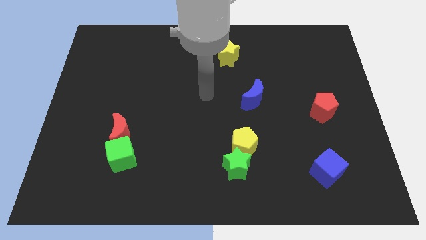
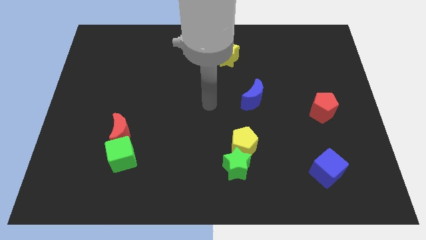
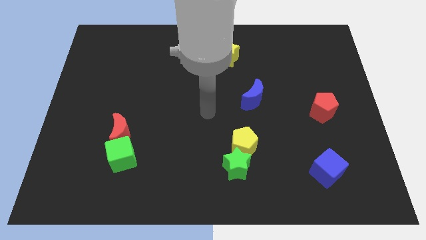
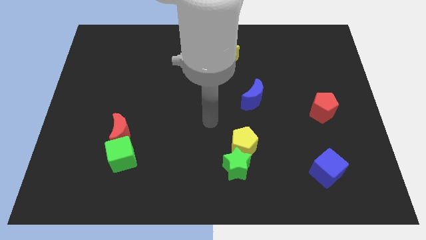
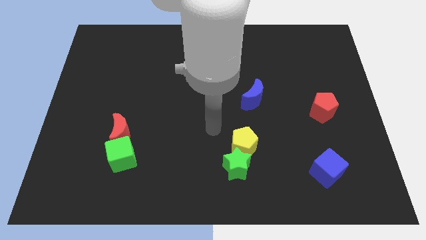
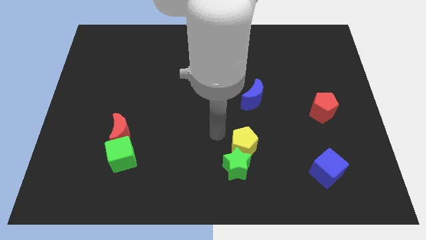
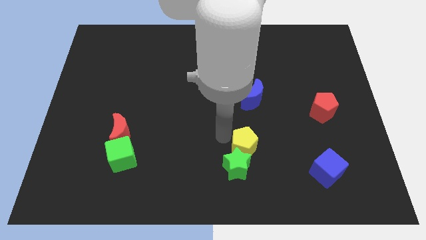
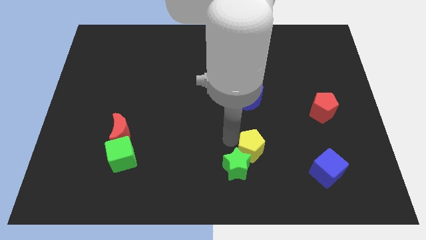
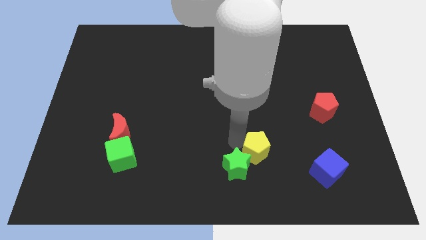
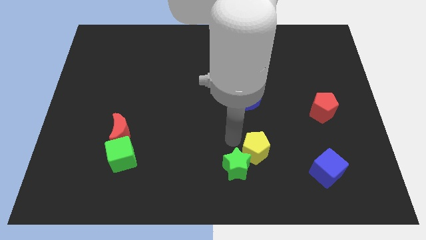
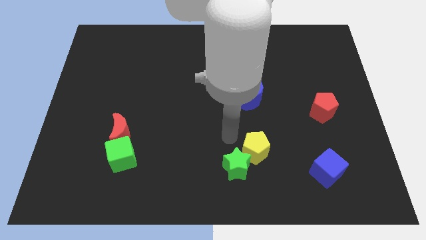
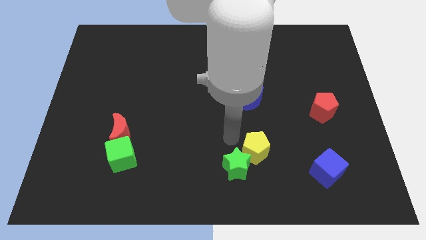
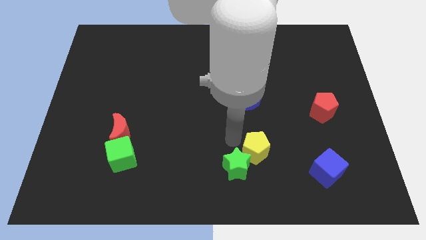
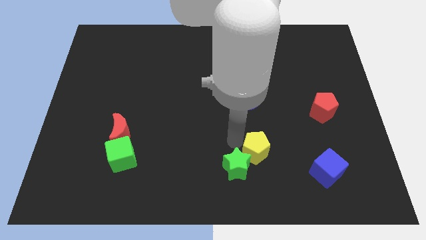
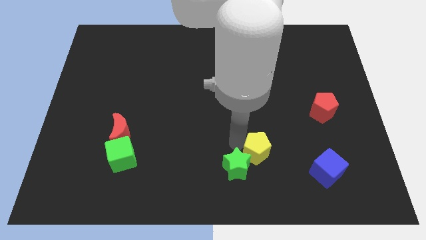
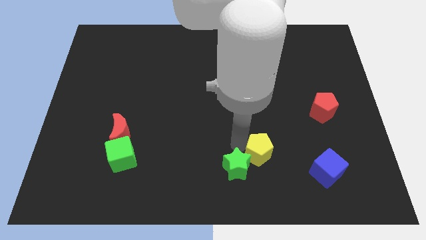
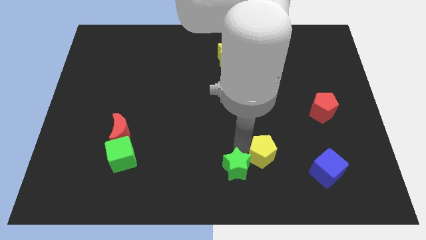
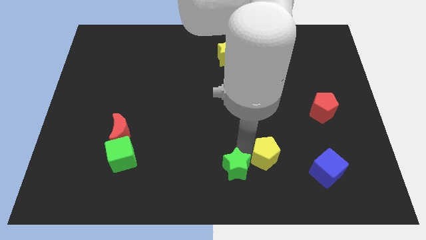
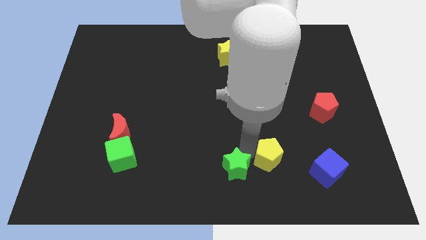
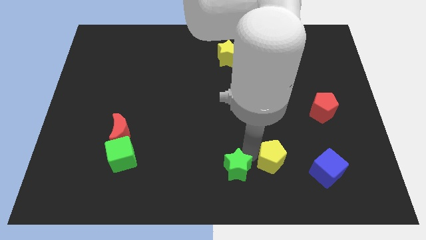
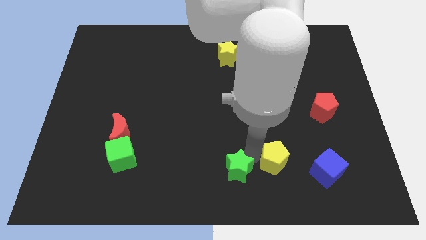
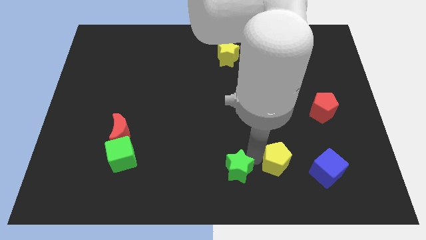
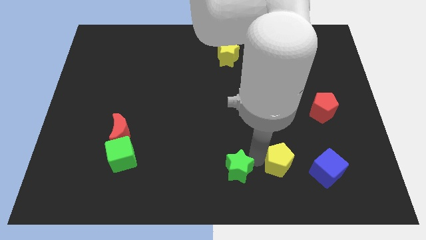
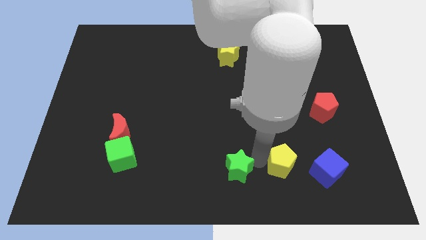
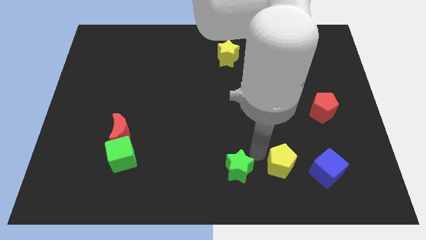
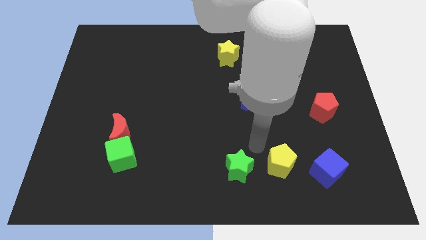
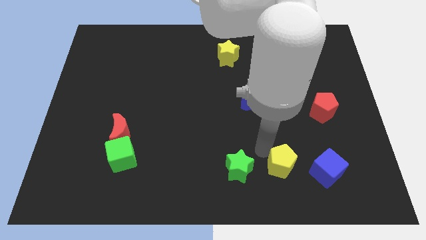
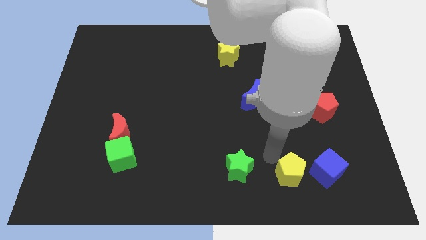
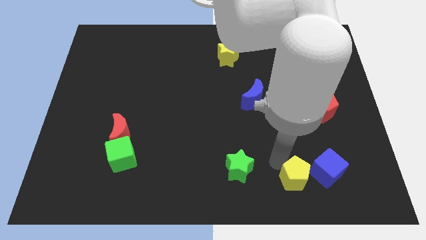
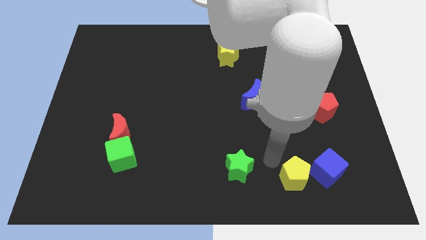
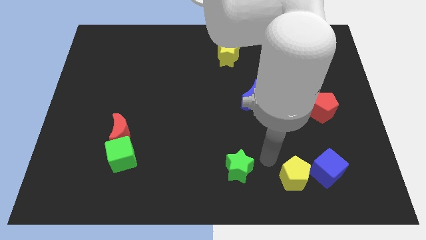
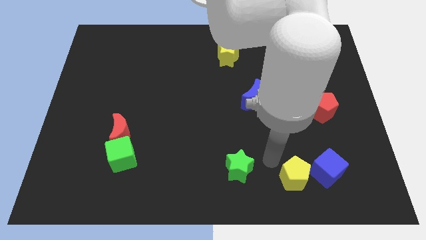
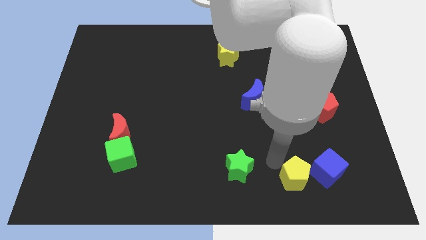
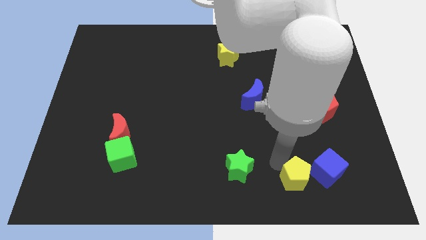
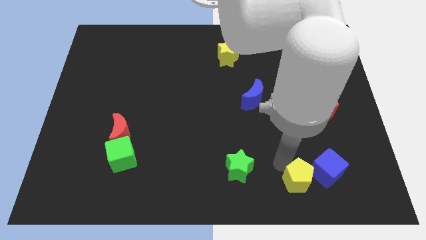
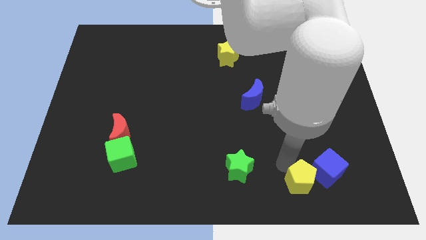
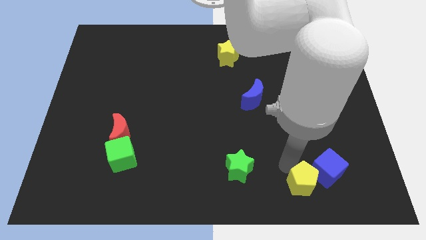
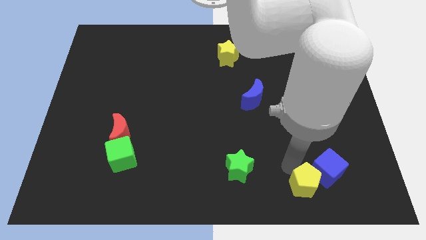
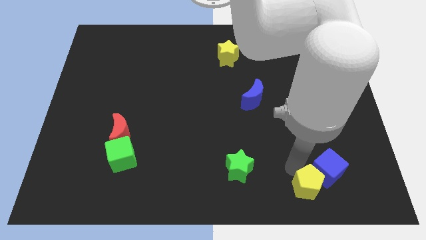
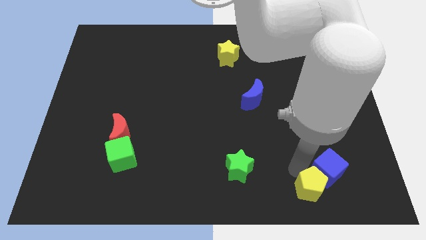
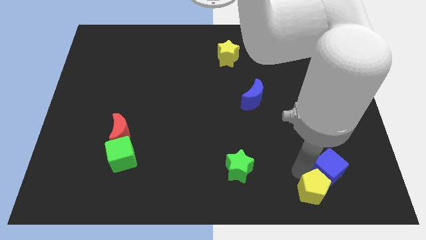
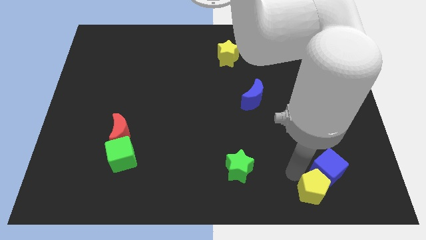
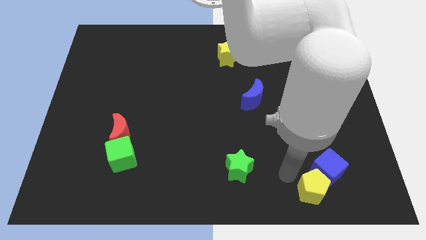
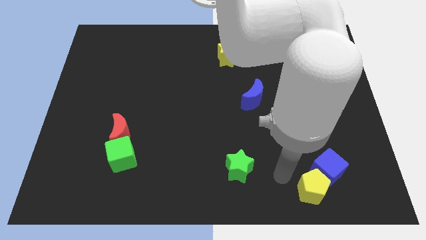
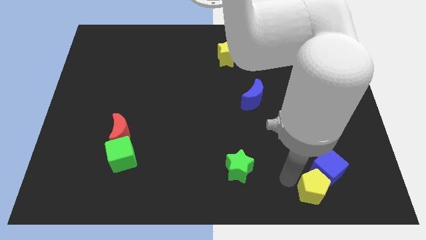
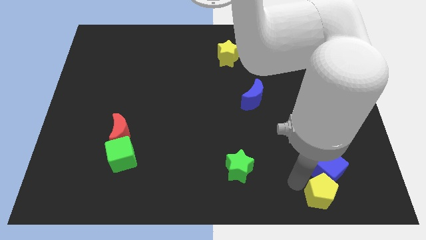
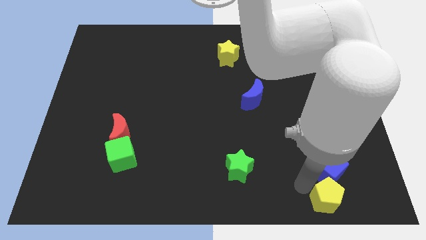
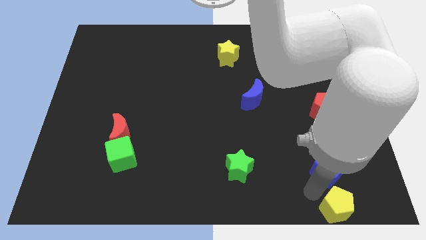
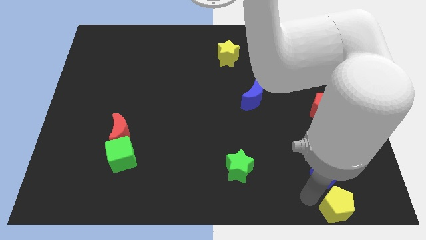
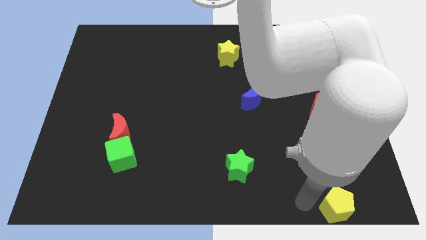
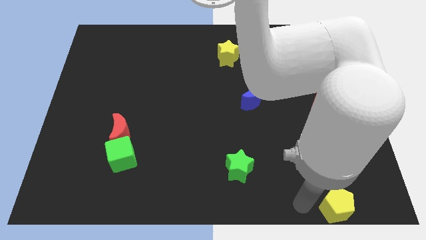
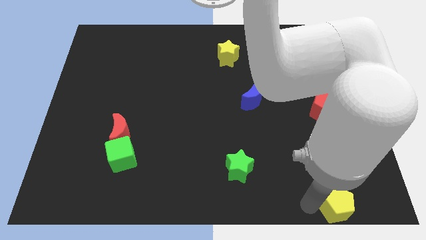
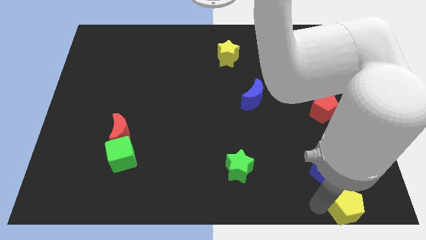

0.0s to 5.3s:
put the yellow pentagon to the bottom right of the board
